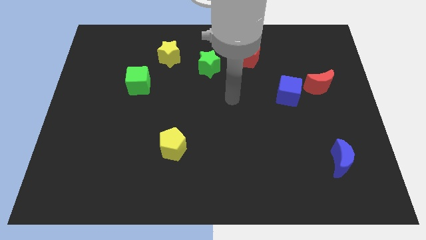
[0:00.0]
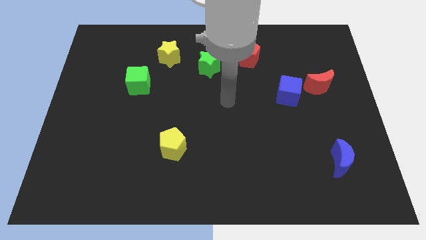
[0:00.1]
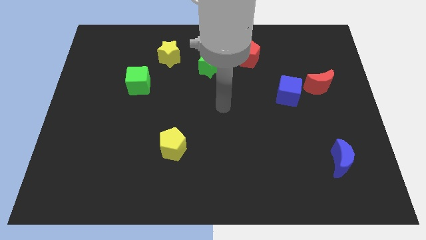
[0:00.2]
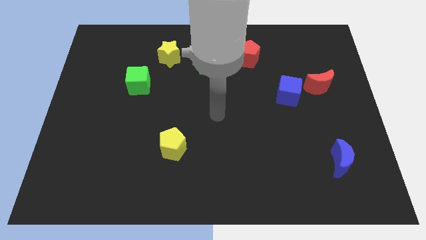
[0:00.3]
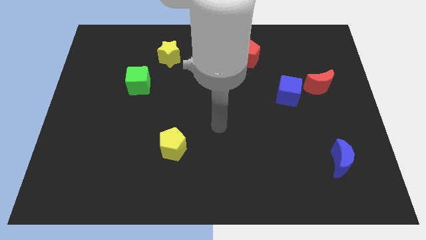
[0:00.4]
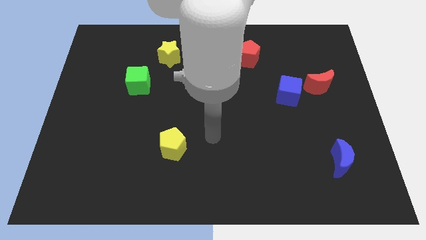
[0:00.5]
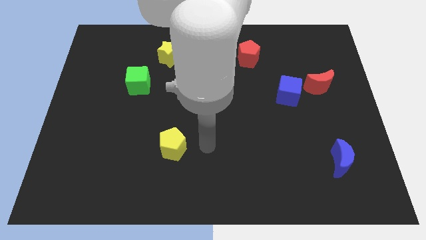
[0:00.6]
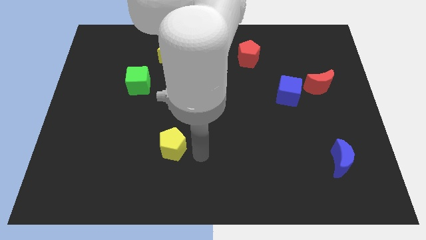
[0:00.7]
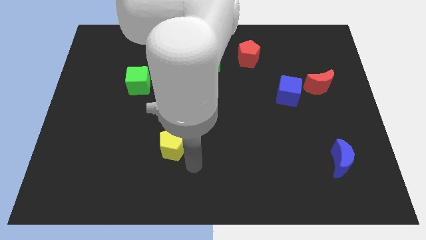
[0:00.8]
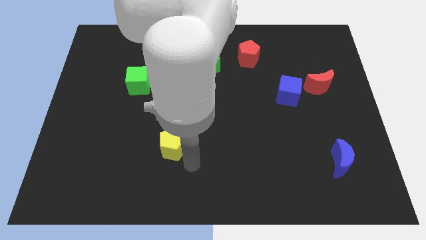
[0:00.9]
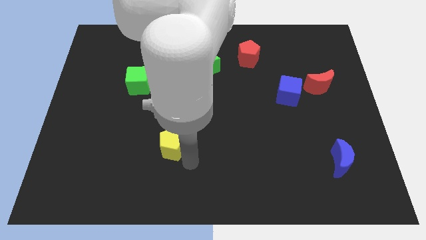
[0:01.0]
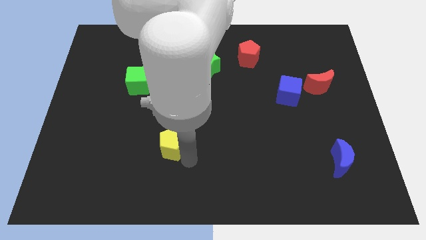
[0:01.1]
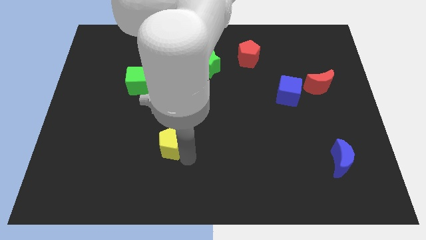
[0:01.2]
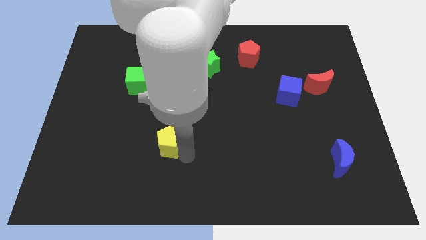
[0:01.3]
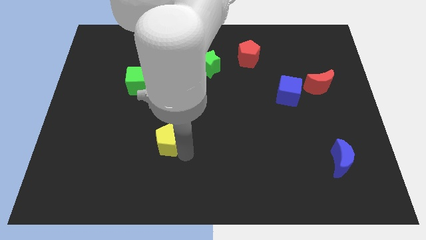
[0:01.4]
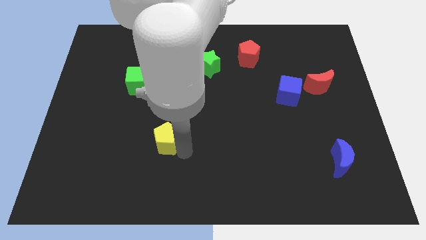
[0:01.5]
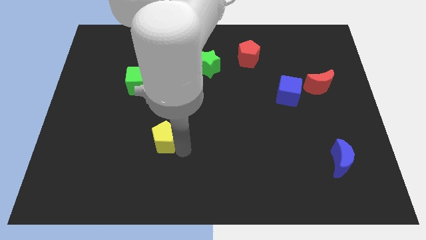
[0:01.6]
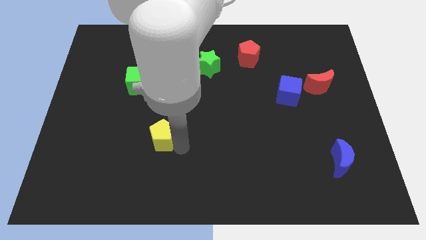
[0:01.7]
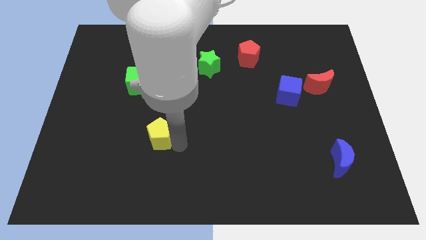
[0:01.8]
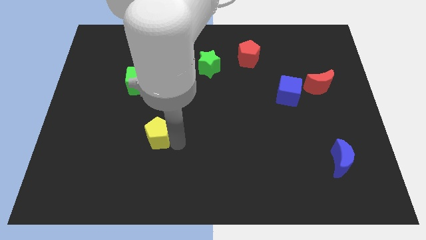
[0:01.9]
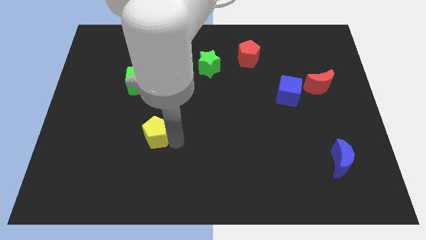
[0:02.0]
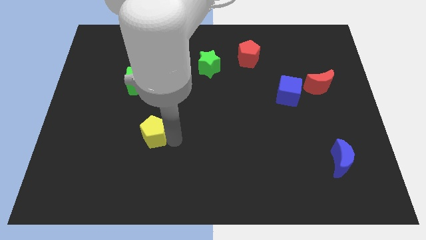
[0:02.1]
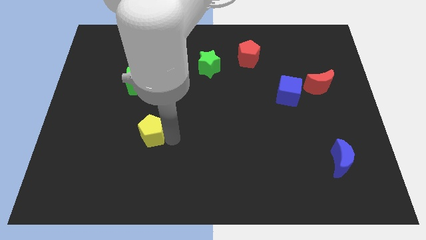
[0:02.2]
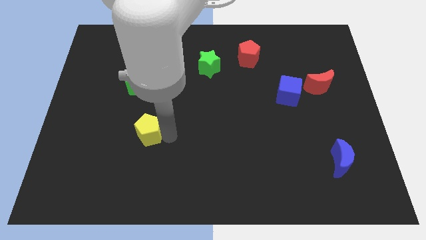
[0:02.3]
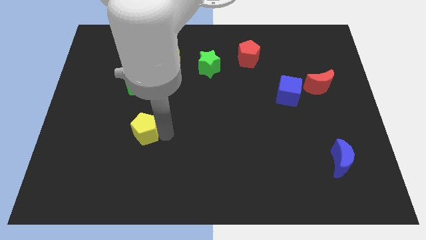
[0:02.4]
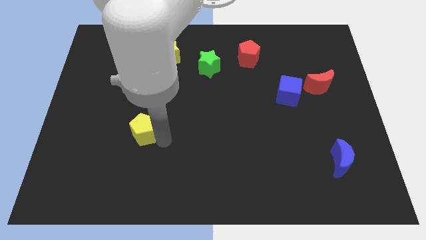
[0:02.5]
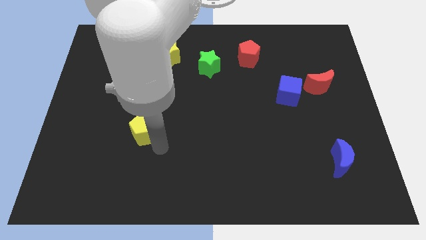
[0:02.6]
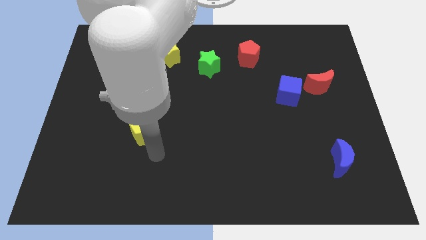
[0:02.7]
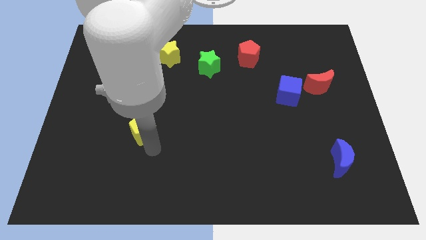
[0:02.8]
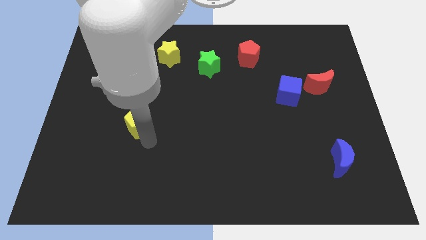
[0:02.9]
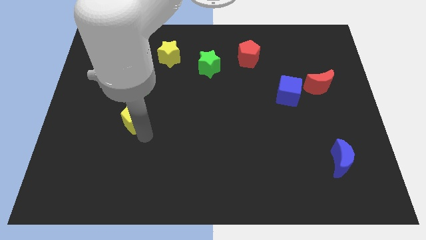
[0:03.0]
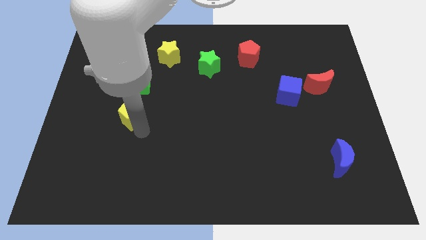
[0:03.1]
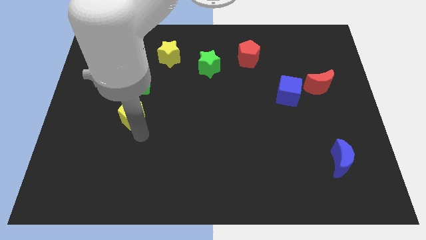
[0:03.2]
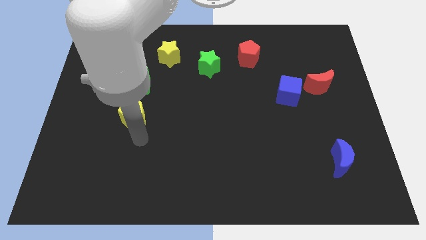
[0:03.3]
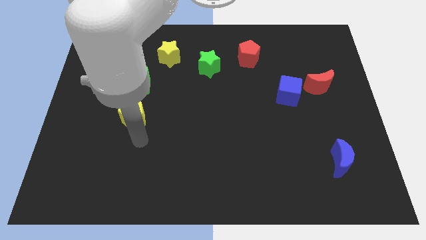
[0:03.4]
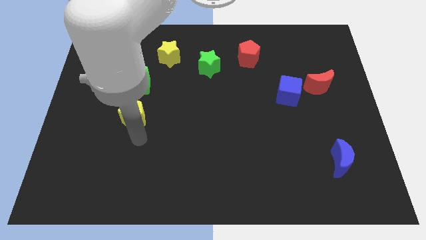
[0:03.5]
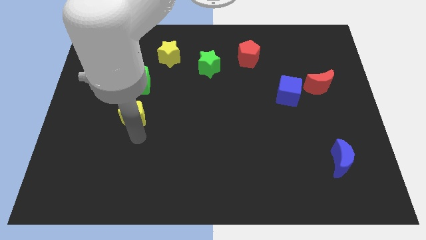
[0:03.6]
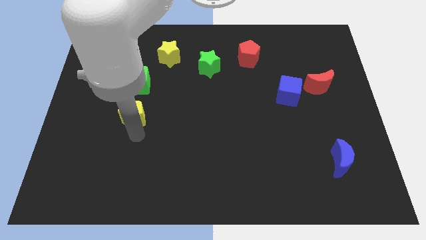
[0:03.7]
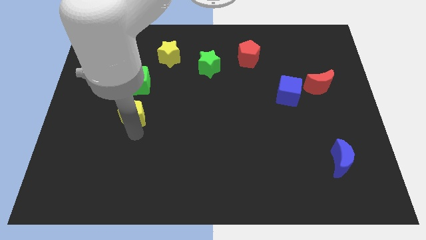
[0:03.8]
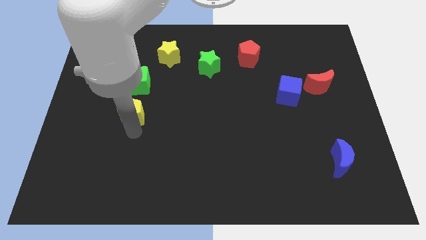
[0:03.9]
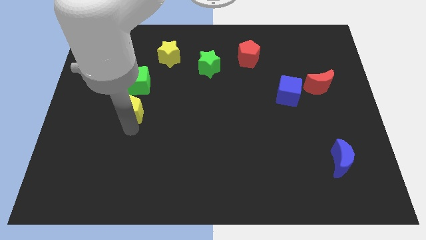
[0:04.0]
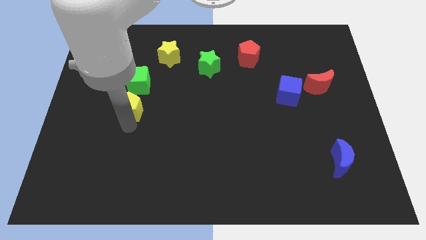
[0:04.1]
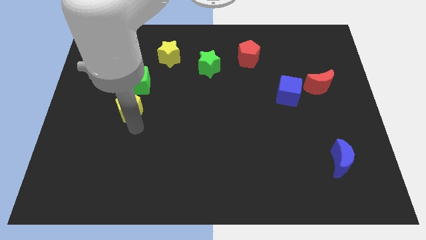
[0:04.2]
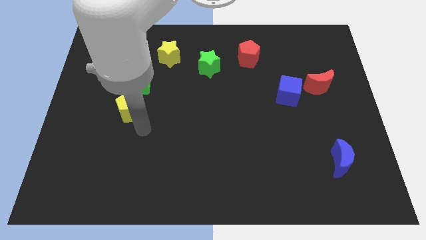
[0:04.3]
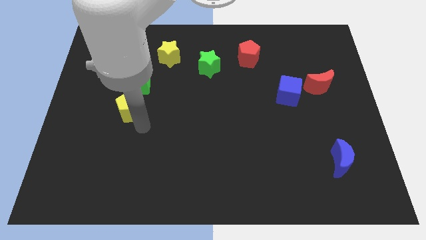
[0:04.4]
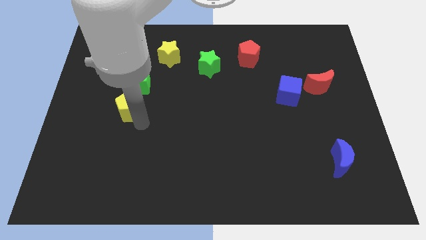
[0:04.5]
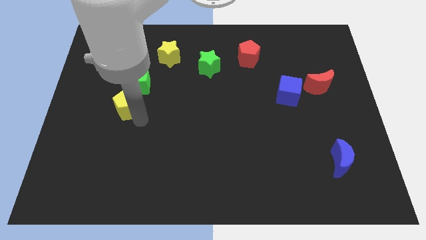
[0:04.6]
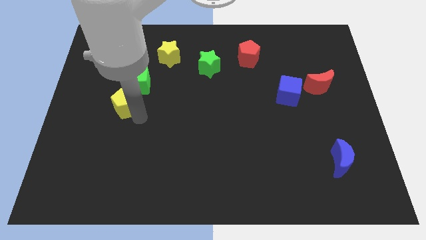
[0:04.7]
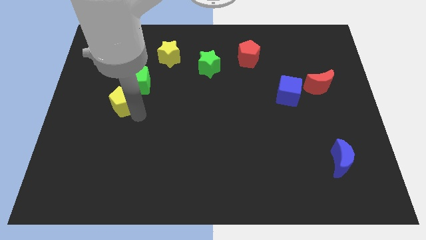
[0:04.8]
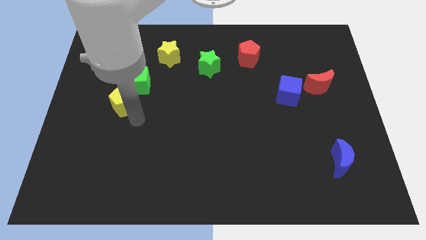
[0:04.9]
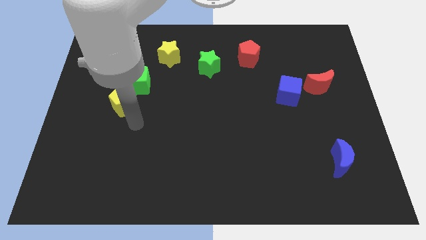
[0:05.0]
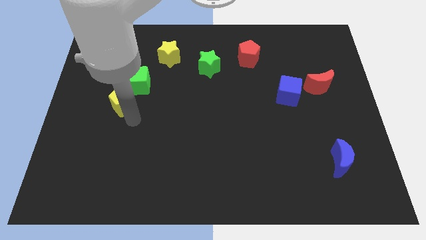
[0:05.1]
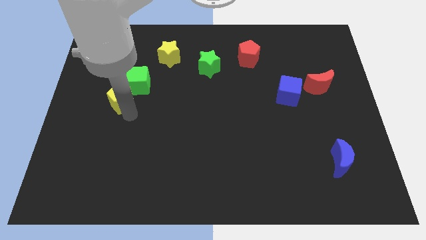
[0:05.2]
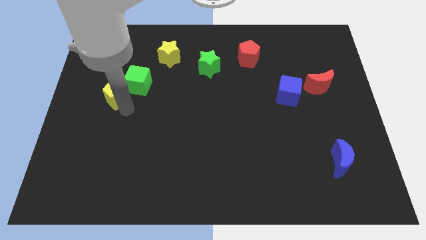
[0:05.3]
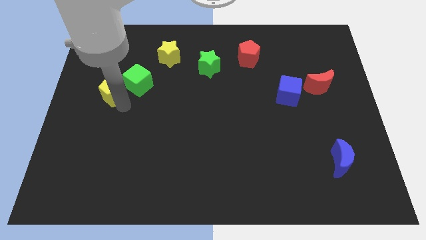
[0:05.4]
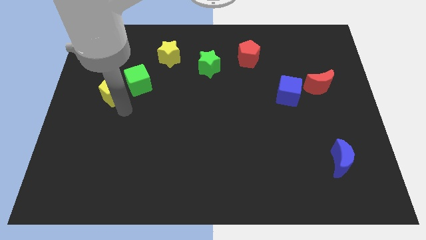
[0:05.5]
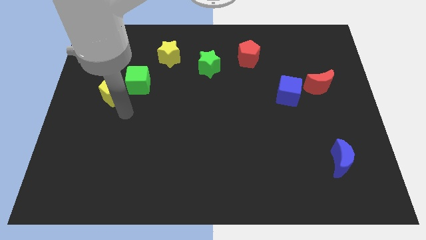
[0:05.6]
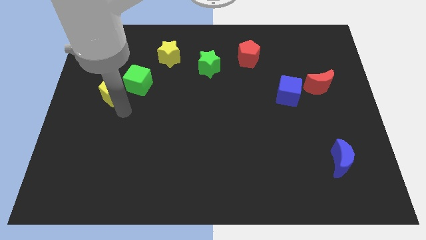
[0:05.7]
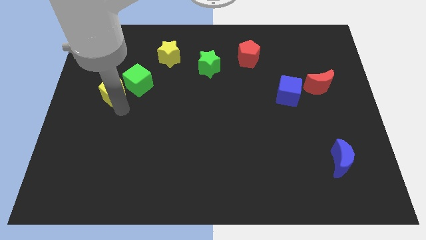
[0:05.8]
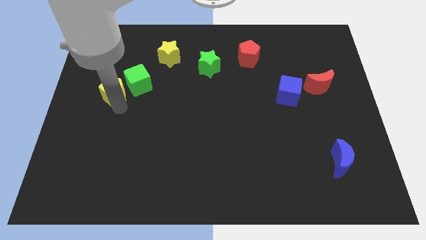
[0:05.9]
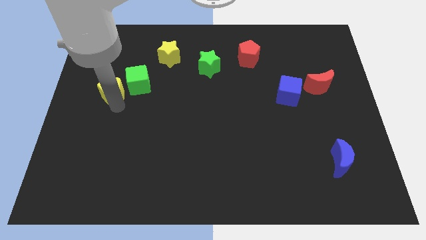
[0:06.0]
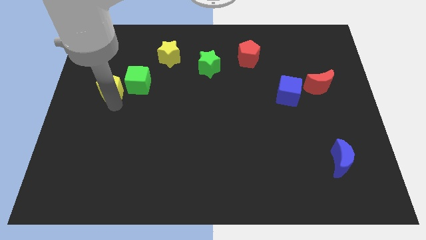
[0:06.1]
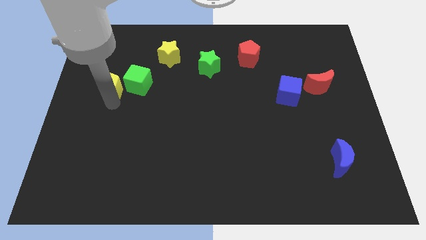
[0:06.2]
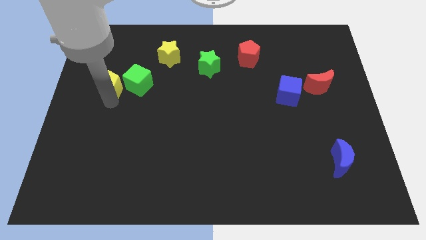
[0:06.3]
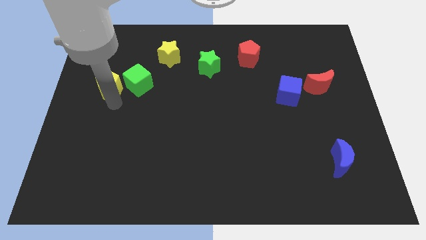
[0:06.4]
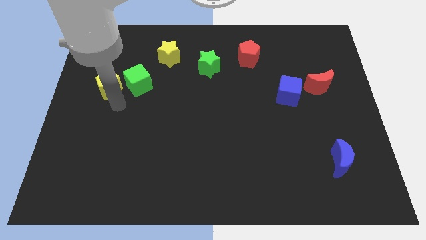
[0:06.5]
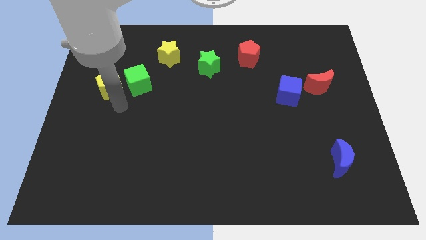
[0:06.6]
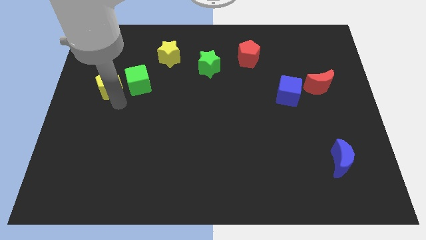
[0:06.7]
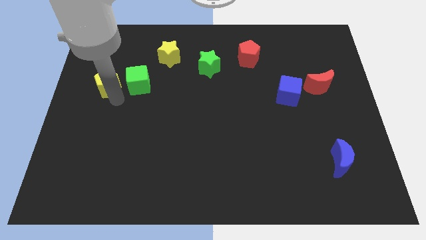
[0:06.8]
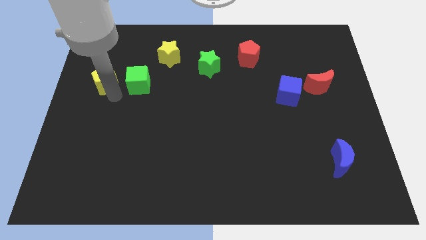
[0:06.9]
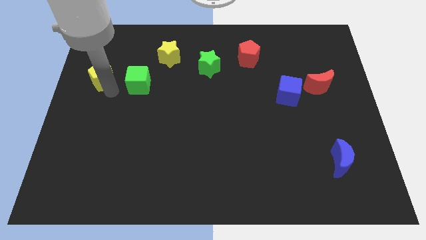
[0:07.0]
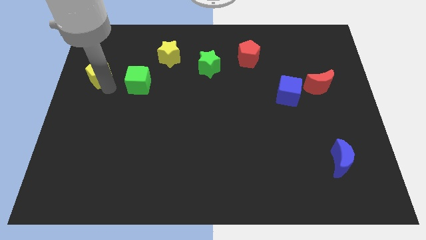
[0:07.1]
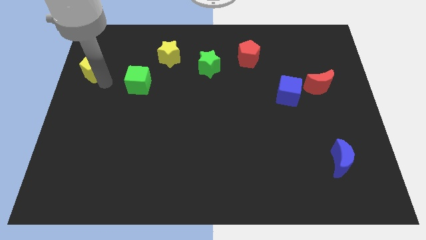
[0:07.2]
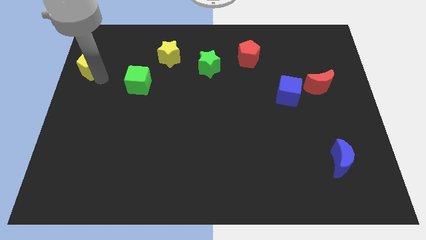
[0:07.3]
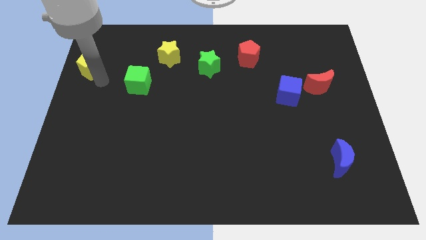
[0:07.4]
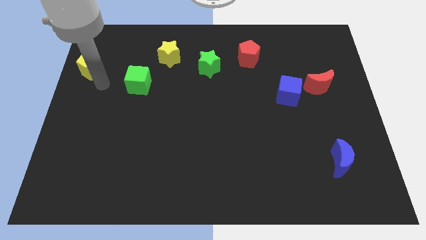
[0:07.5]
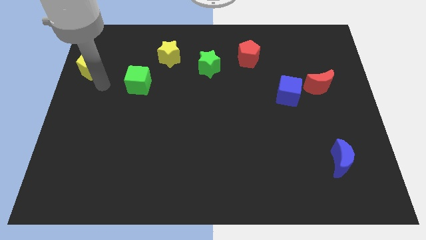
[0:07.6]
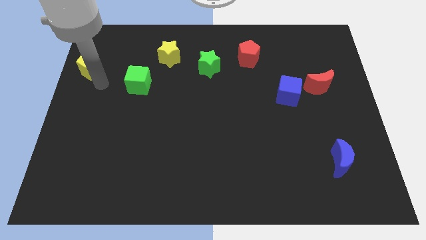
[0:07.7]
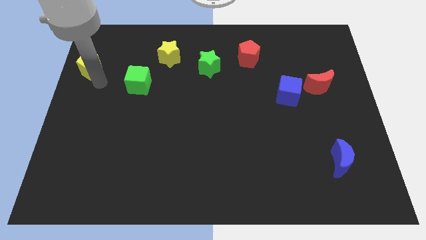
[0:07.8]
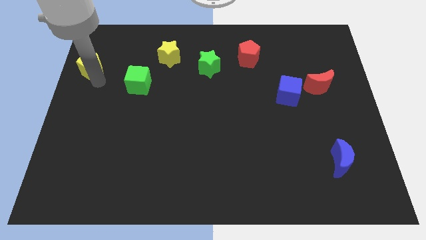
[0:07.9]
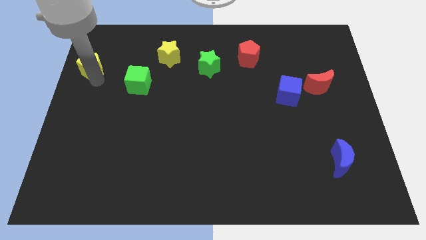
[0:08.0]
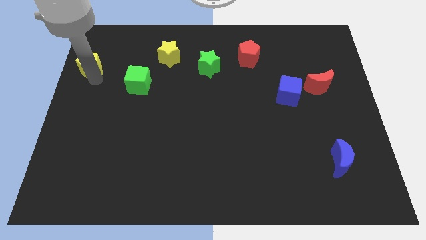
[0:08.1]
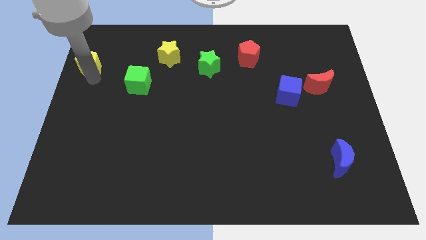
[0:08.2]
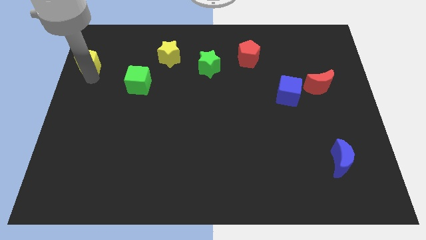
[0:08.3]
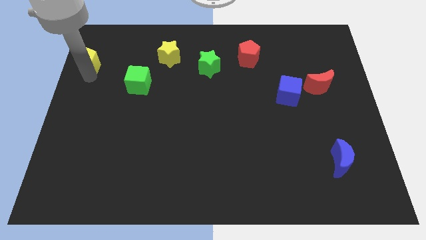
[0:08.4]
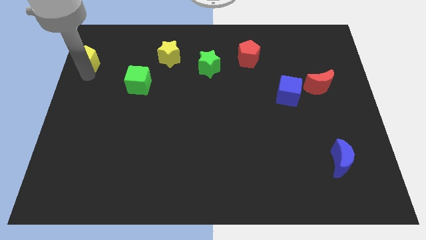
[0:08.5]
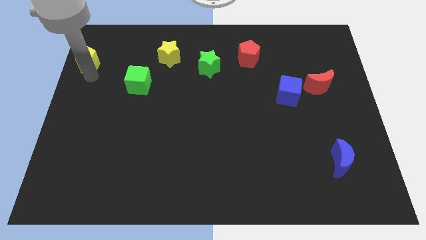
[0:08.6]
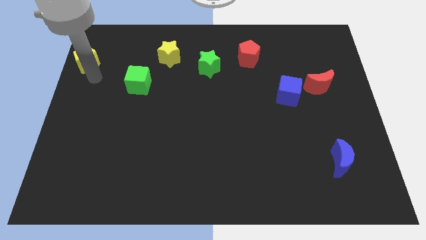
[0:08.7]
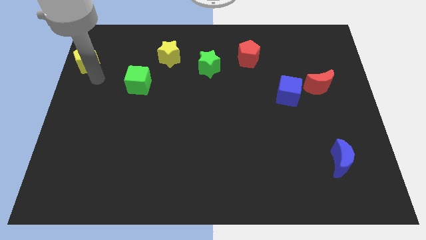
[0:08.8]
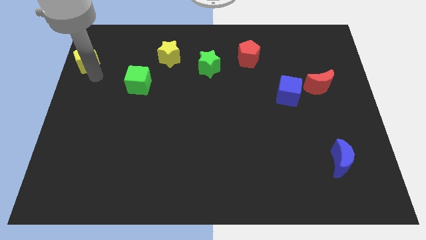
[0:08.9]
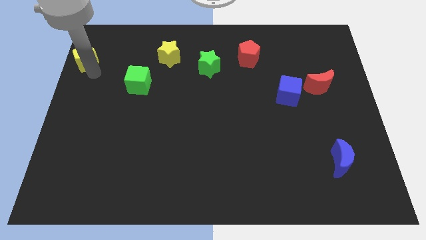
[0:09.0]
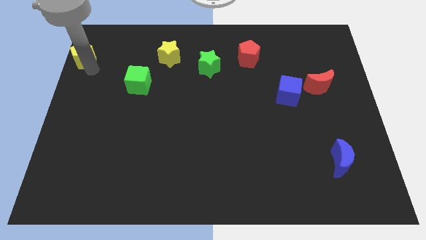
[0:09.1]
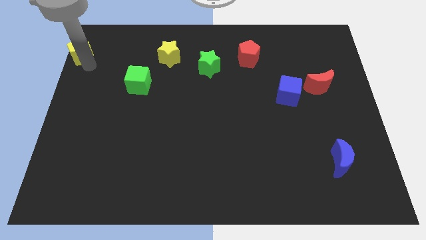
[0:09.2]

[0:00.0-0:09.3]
slide the yellow pentagon to the top left of the board
